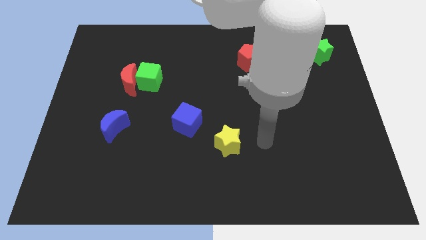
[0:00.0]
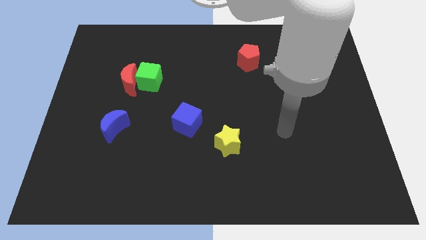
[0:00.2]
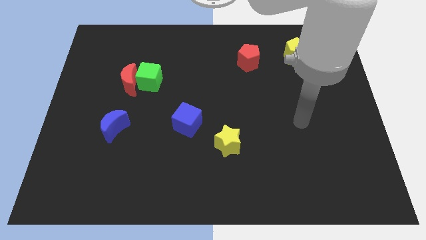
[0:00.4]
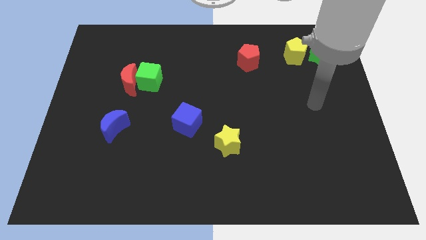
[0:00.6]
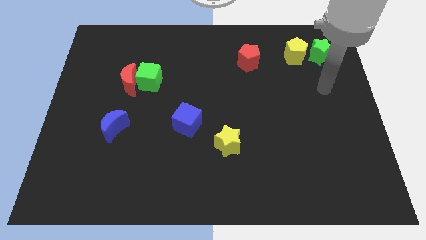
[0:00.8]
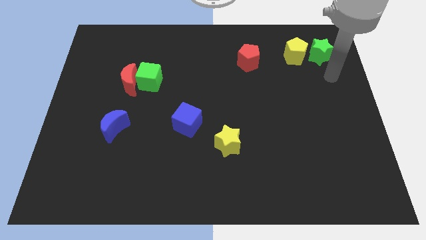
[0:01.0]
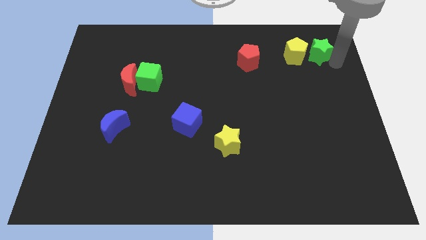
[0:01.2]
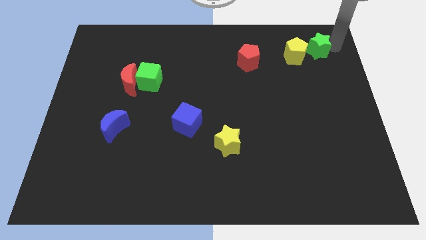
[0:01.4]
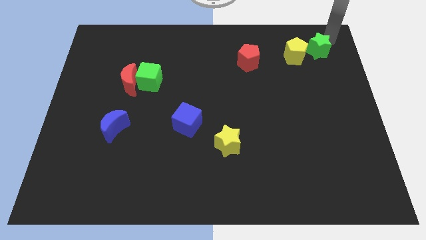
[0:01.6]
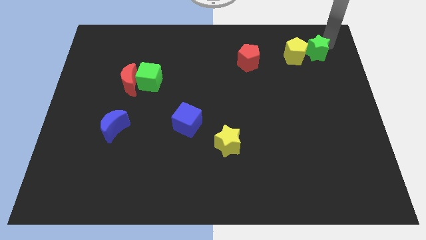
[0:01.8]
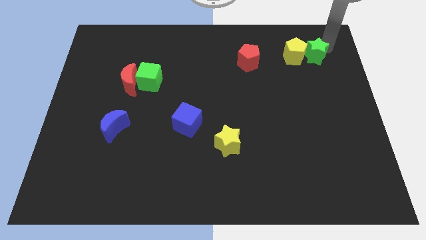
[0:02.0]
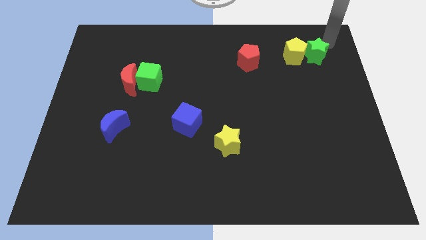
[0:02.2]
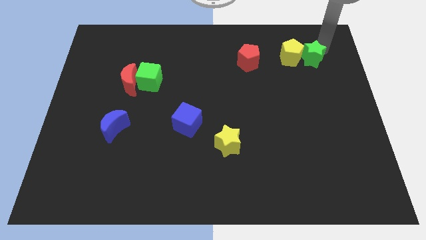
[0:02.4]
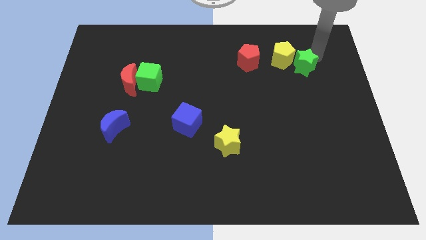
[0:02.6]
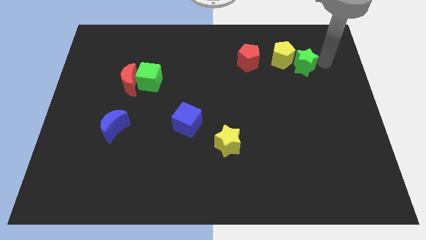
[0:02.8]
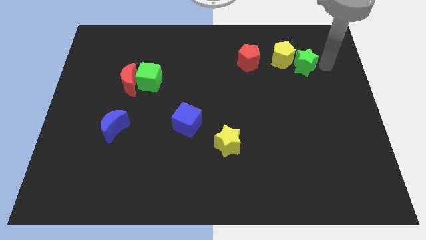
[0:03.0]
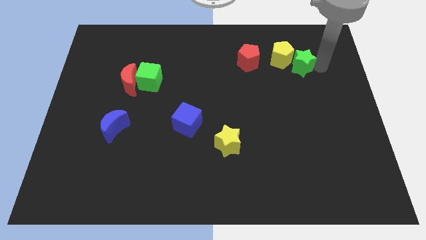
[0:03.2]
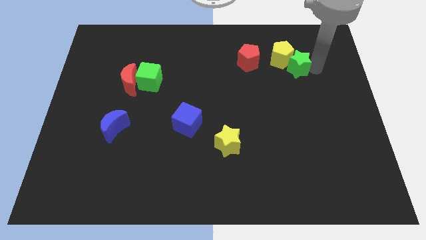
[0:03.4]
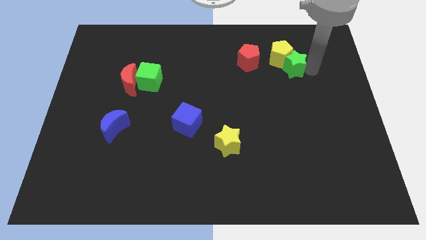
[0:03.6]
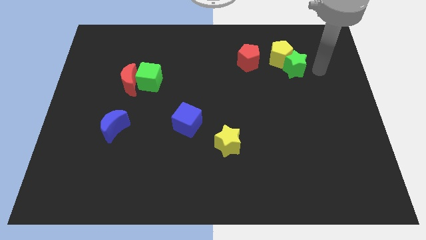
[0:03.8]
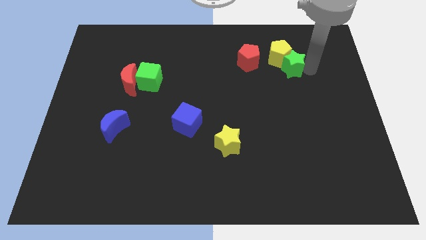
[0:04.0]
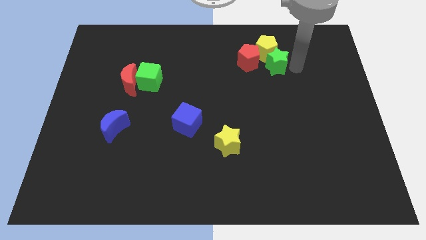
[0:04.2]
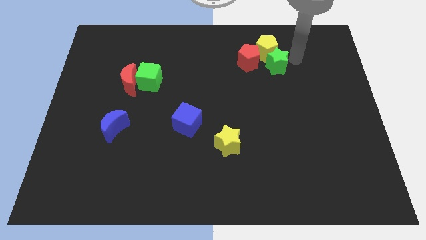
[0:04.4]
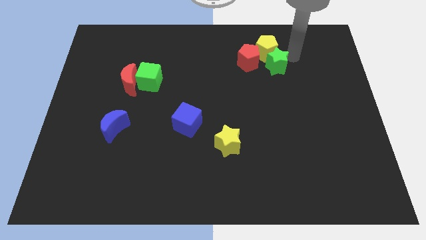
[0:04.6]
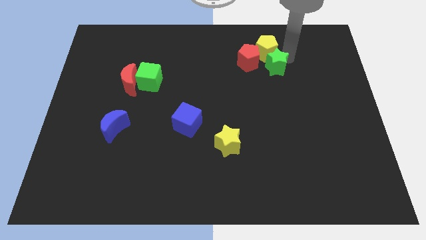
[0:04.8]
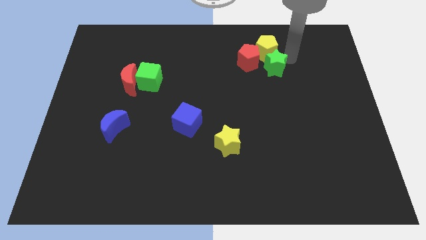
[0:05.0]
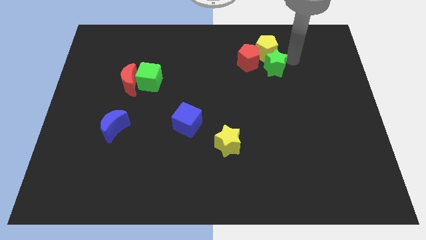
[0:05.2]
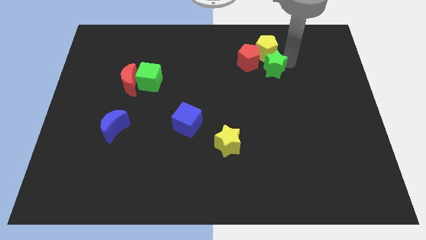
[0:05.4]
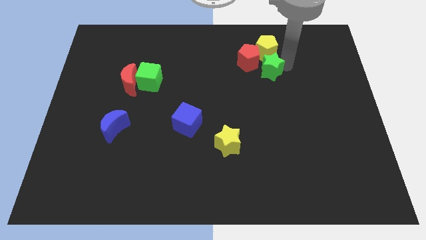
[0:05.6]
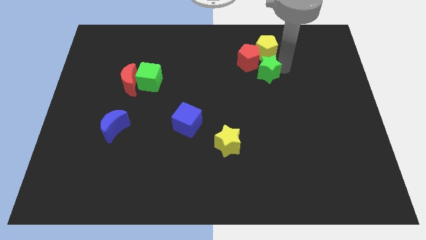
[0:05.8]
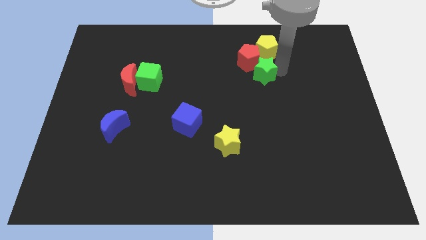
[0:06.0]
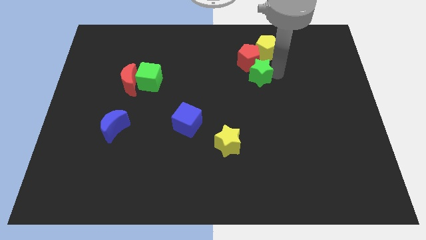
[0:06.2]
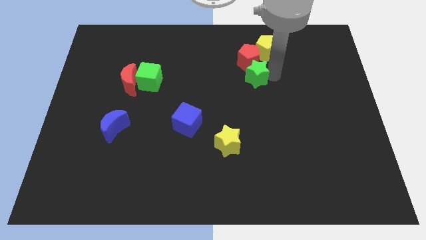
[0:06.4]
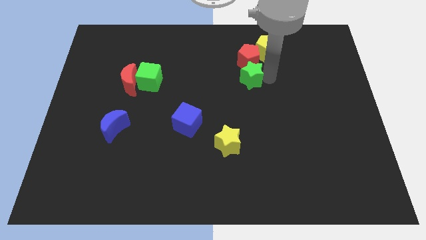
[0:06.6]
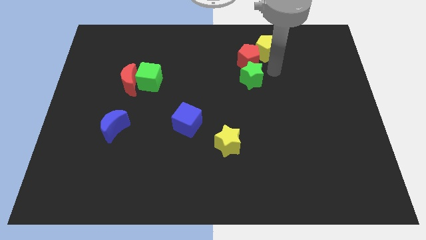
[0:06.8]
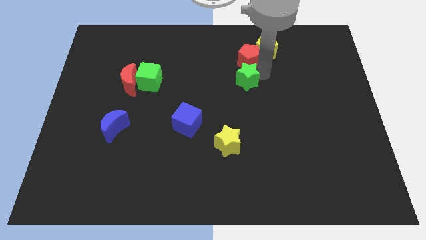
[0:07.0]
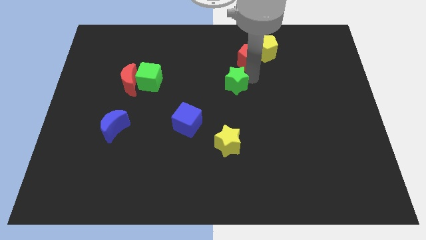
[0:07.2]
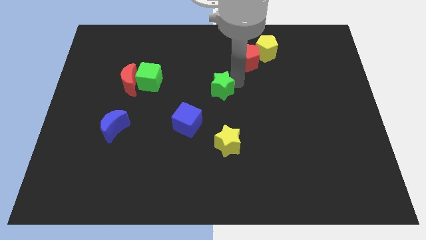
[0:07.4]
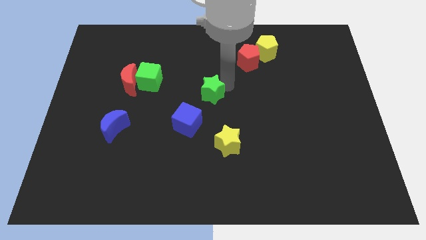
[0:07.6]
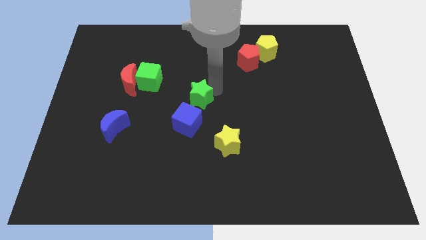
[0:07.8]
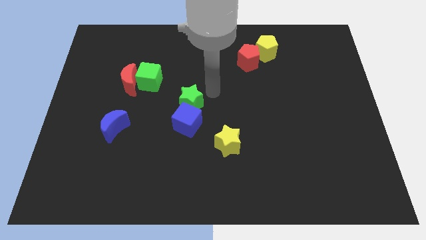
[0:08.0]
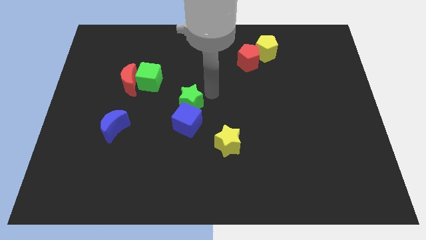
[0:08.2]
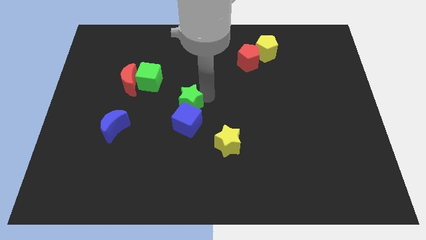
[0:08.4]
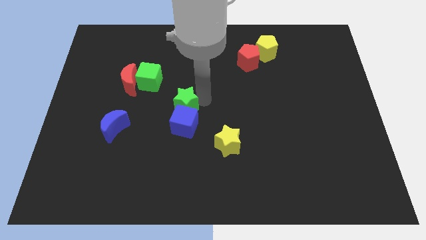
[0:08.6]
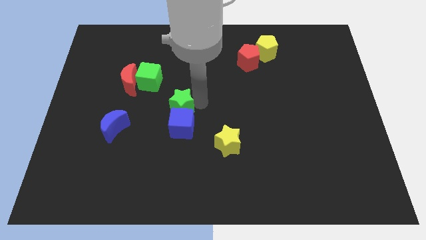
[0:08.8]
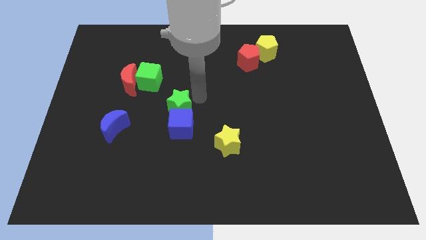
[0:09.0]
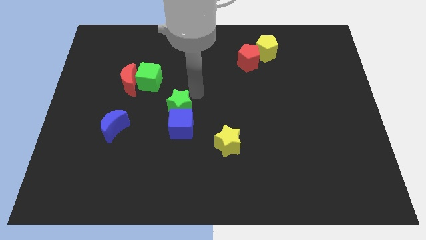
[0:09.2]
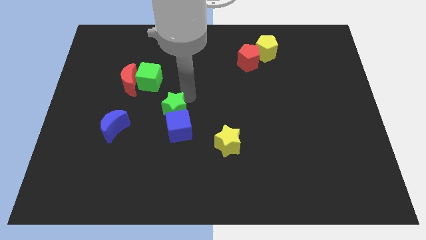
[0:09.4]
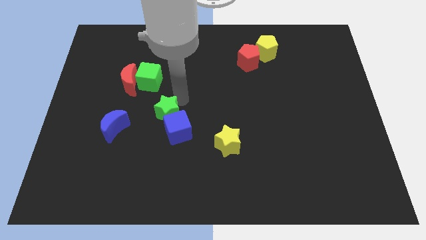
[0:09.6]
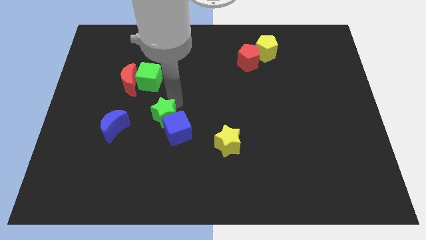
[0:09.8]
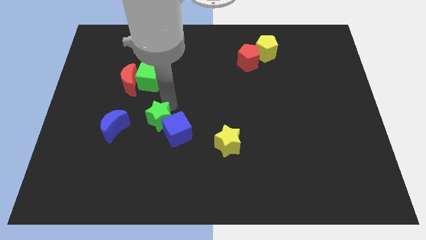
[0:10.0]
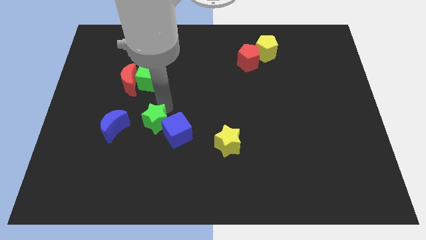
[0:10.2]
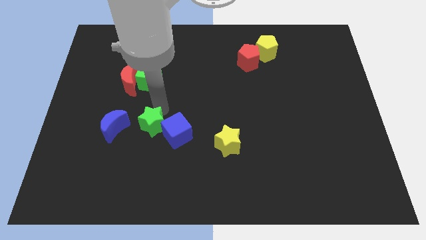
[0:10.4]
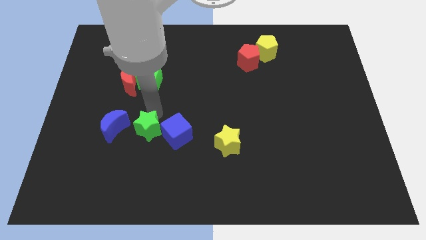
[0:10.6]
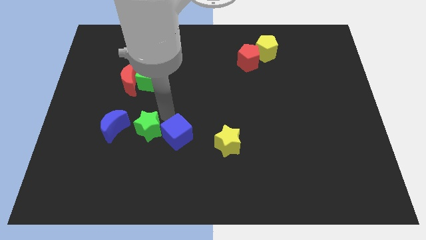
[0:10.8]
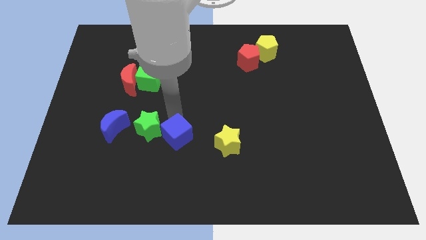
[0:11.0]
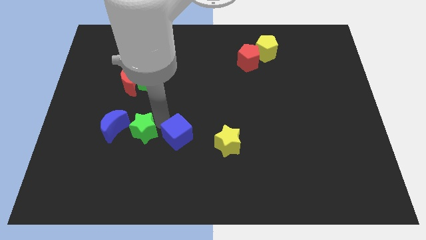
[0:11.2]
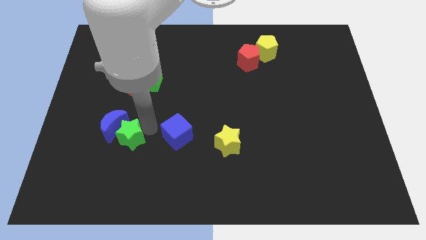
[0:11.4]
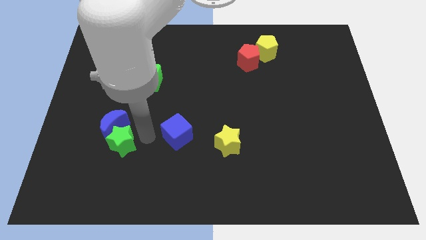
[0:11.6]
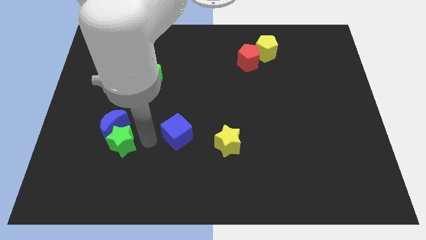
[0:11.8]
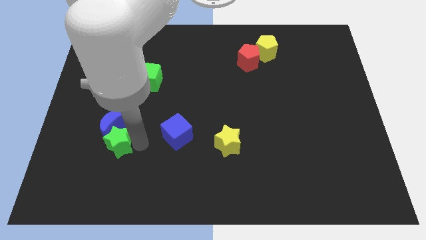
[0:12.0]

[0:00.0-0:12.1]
move the green star to the bottom left of the blue moon

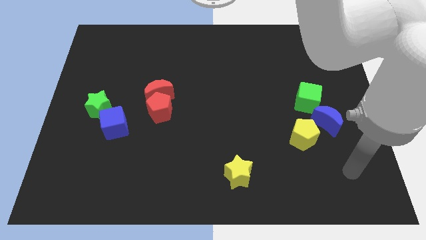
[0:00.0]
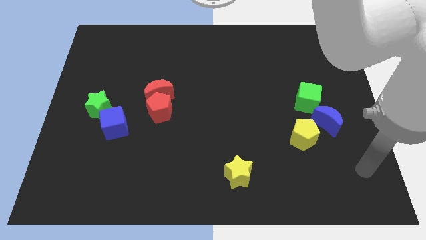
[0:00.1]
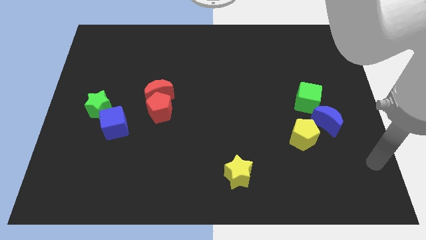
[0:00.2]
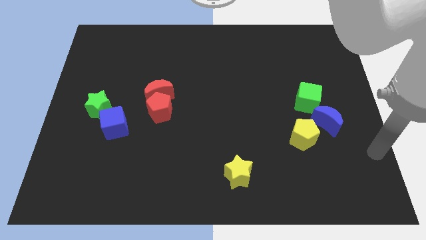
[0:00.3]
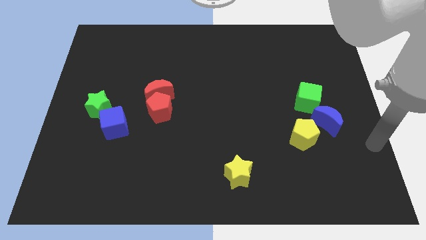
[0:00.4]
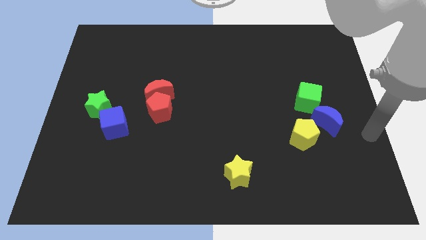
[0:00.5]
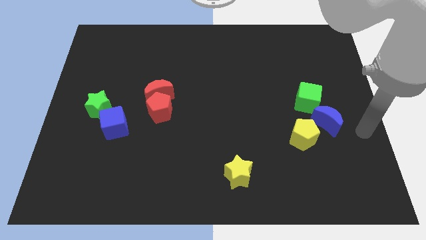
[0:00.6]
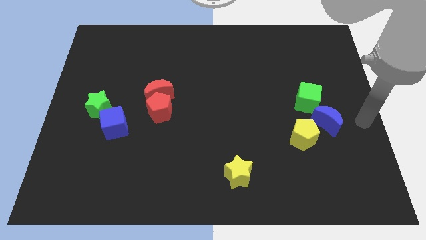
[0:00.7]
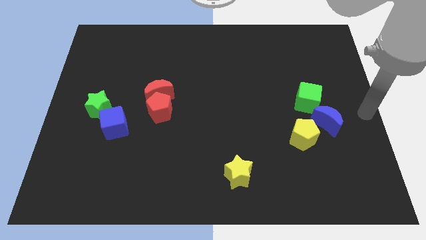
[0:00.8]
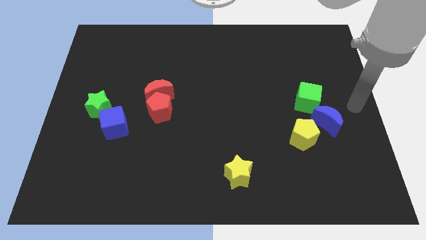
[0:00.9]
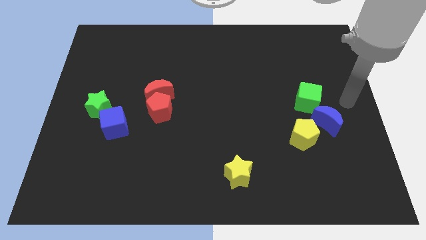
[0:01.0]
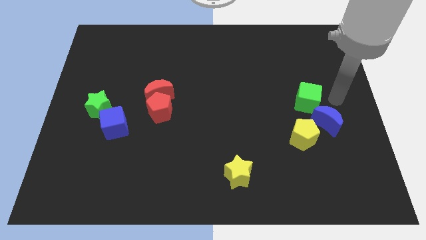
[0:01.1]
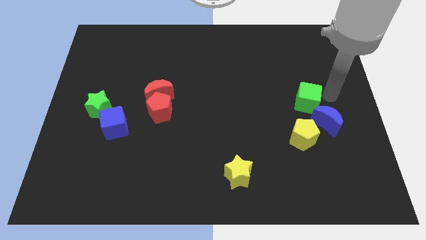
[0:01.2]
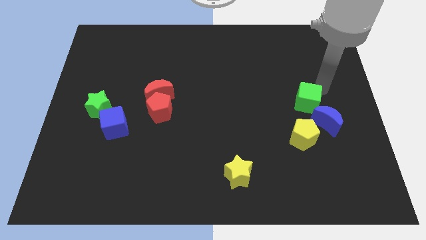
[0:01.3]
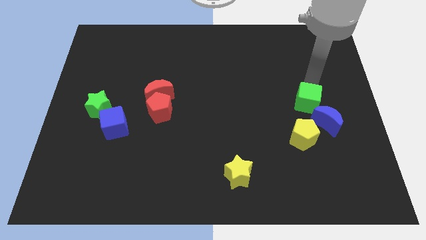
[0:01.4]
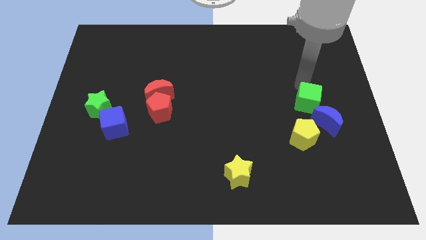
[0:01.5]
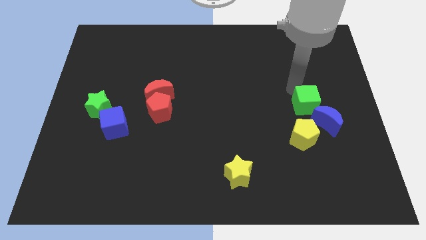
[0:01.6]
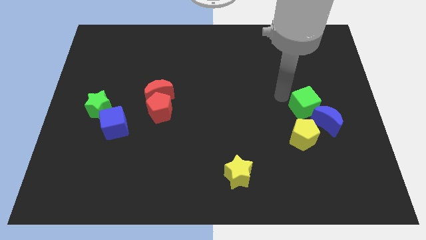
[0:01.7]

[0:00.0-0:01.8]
put the green cube to the top right side of the yellow pentagon
